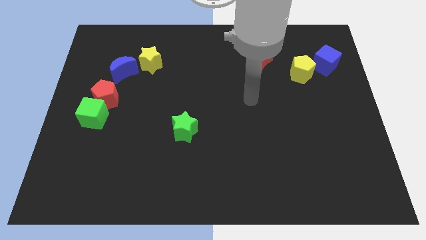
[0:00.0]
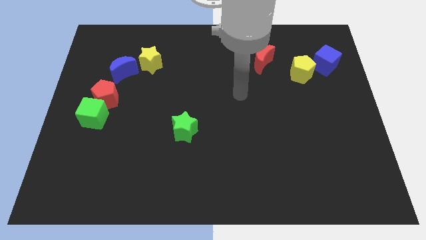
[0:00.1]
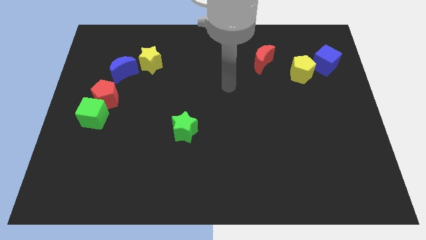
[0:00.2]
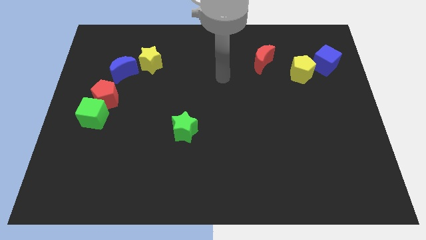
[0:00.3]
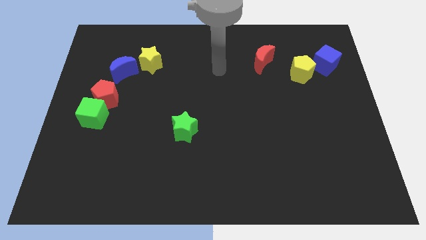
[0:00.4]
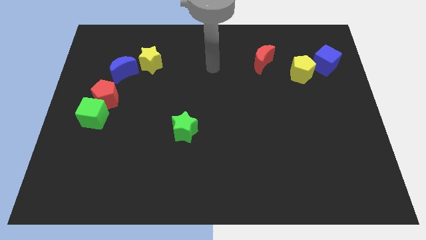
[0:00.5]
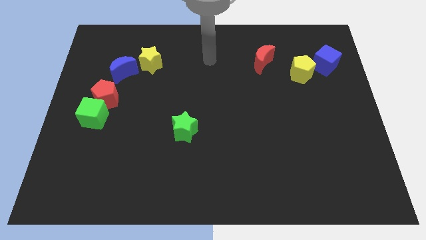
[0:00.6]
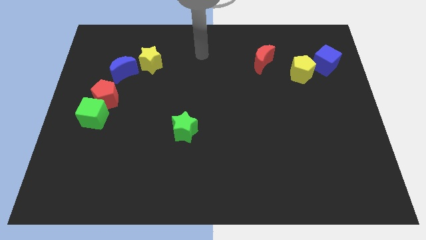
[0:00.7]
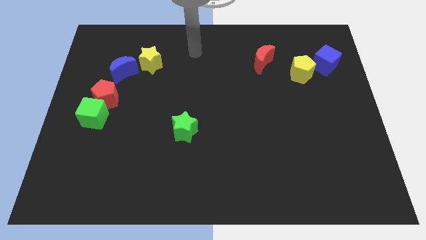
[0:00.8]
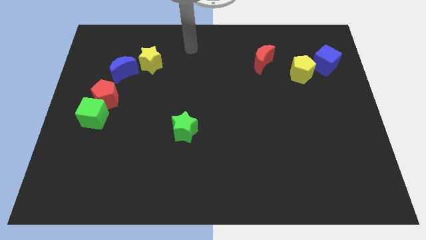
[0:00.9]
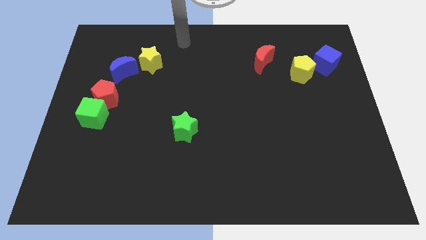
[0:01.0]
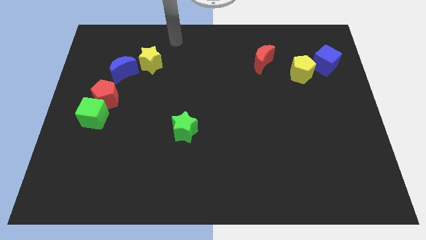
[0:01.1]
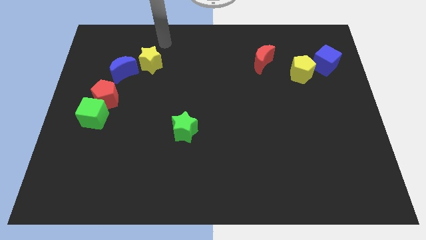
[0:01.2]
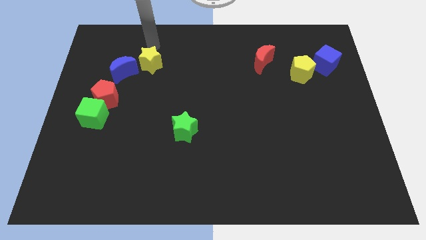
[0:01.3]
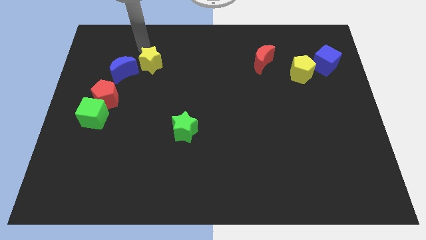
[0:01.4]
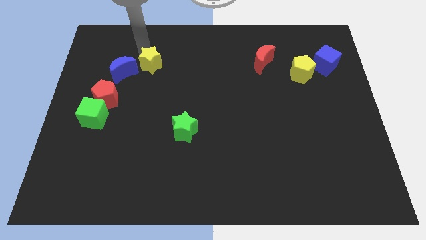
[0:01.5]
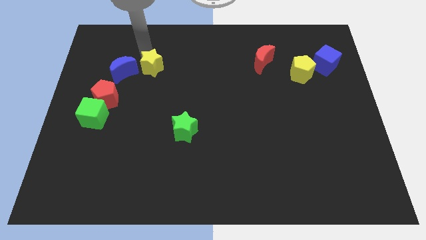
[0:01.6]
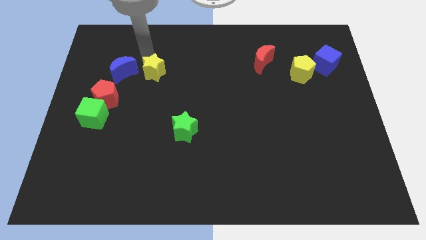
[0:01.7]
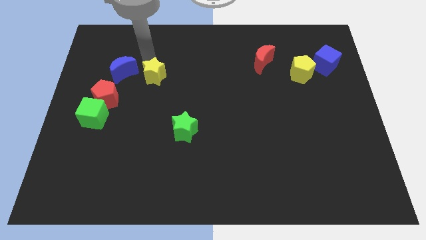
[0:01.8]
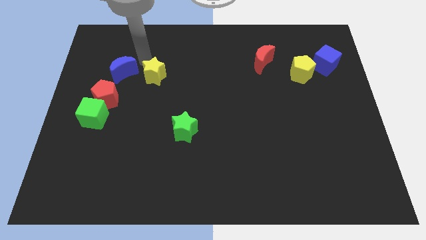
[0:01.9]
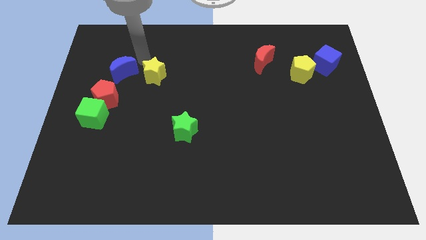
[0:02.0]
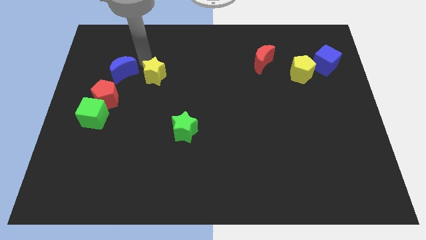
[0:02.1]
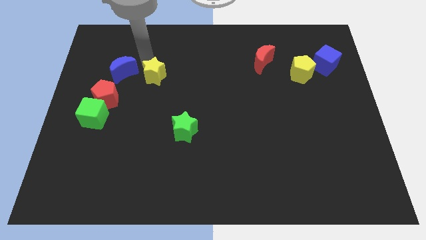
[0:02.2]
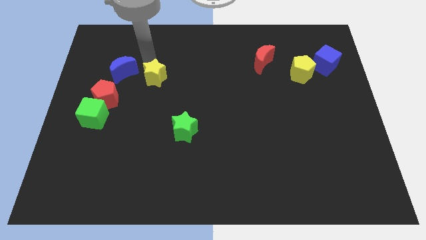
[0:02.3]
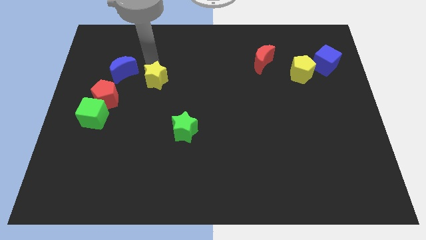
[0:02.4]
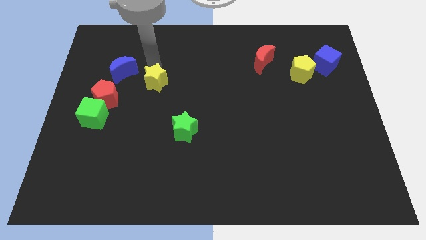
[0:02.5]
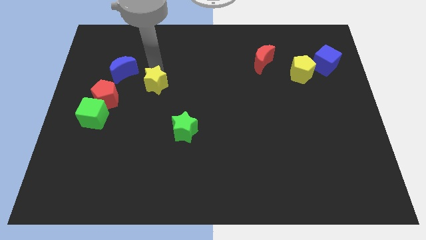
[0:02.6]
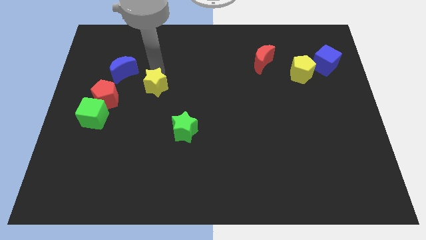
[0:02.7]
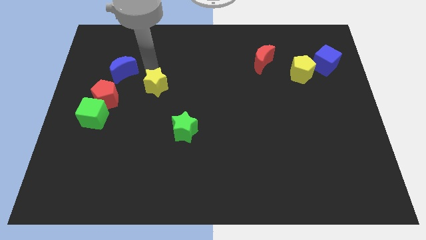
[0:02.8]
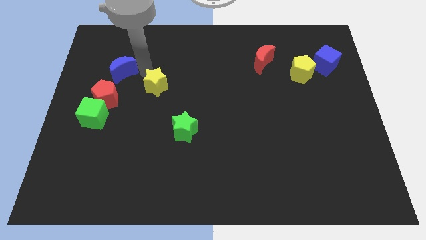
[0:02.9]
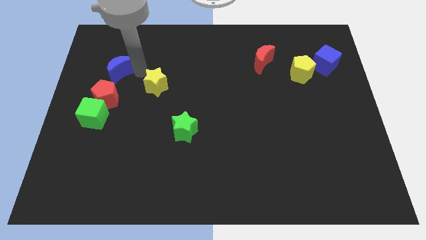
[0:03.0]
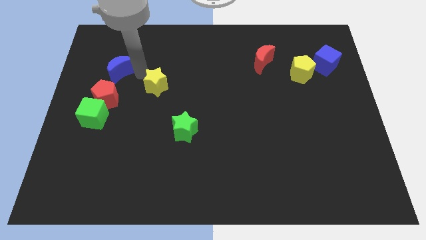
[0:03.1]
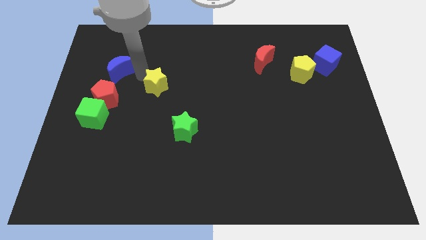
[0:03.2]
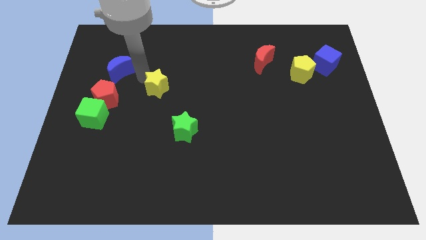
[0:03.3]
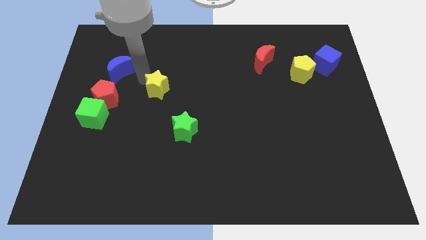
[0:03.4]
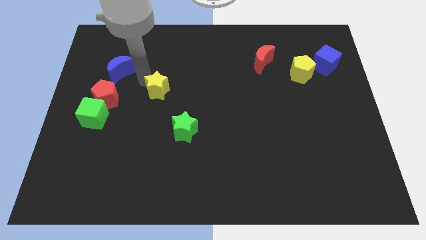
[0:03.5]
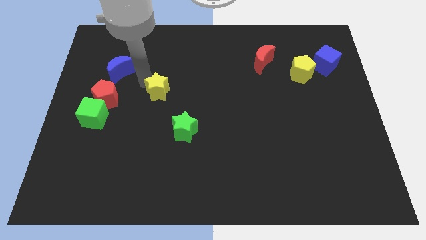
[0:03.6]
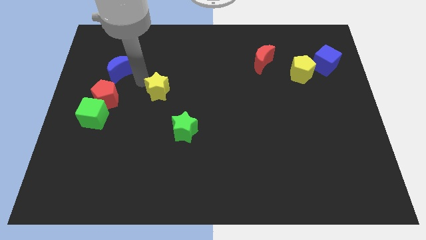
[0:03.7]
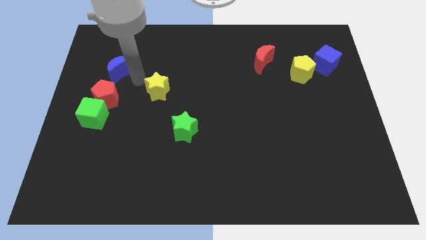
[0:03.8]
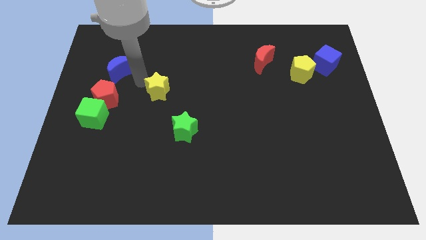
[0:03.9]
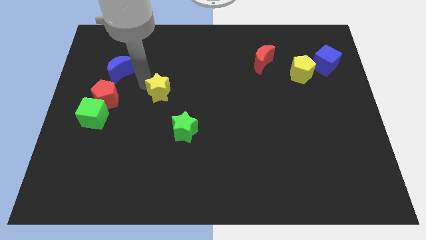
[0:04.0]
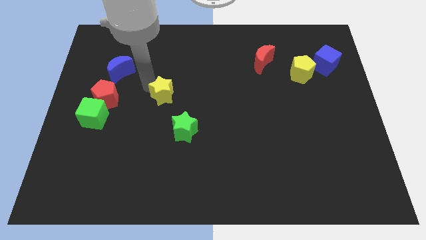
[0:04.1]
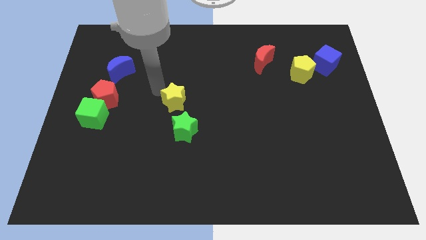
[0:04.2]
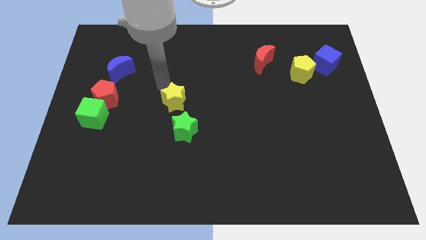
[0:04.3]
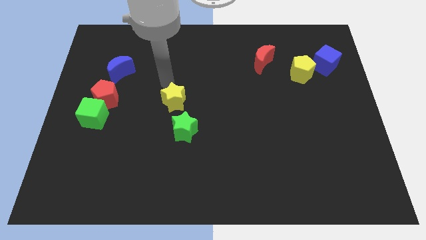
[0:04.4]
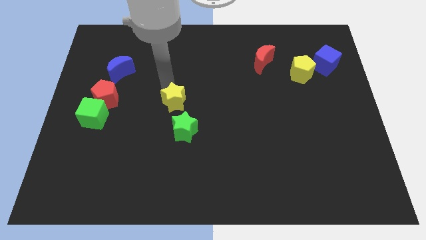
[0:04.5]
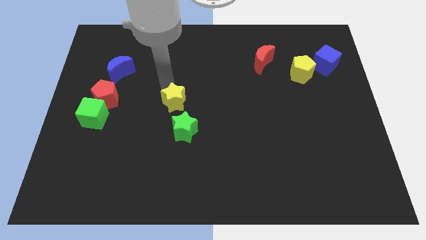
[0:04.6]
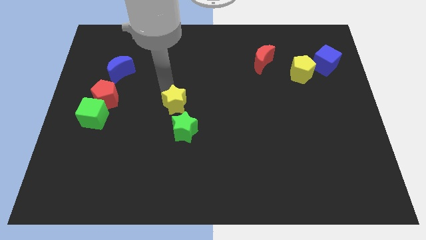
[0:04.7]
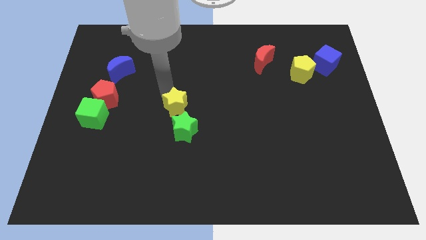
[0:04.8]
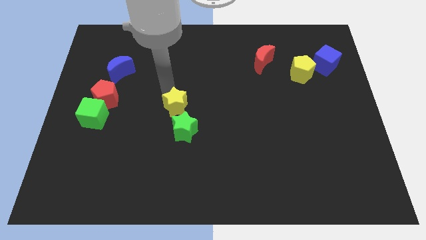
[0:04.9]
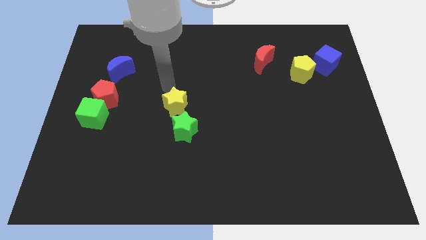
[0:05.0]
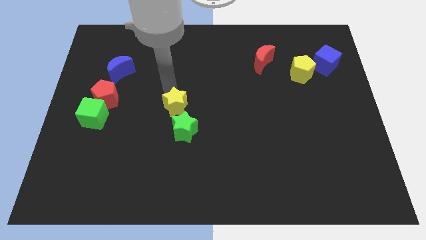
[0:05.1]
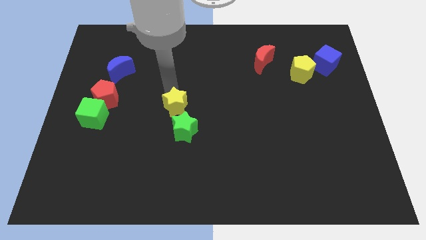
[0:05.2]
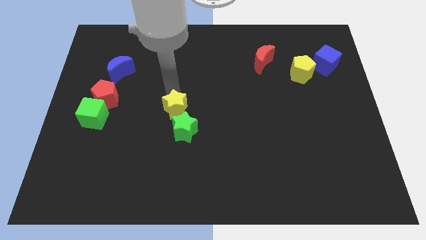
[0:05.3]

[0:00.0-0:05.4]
push the yellow star next to the green star

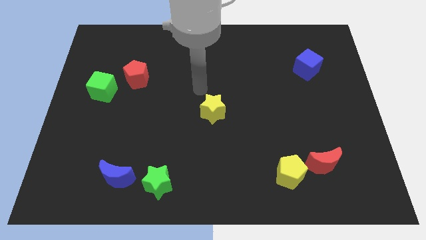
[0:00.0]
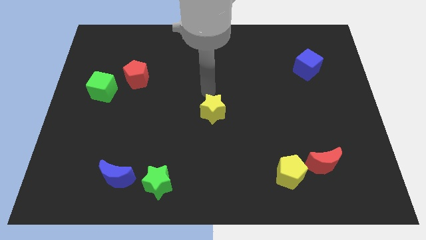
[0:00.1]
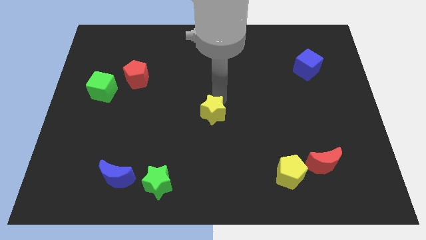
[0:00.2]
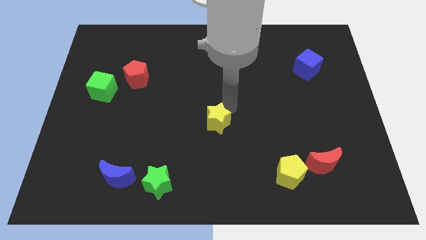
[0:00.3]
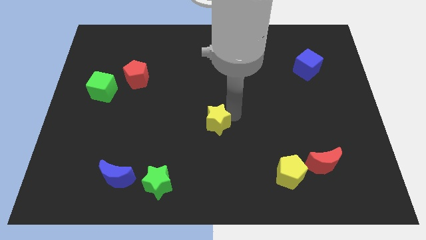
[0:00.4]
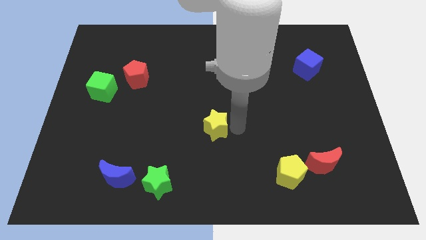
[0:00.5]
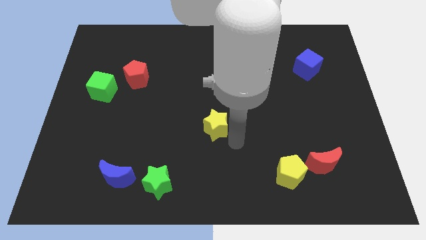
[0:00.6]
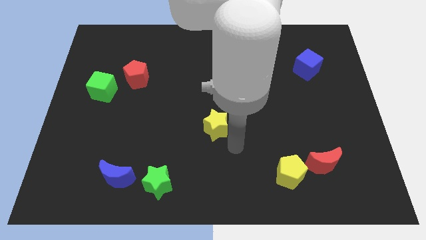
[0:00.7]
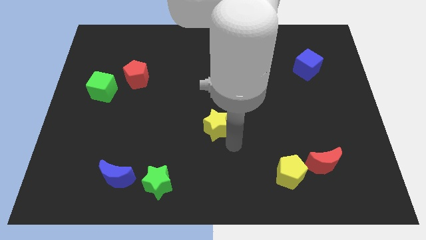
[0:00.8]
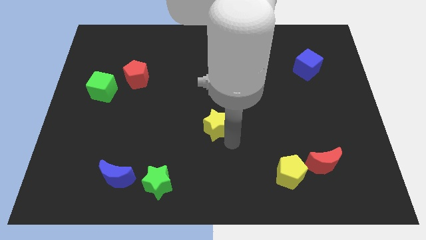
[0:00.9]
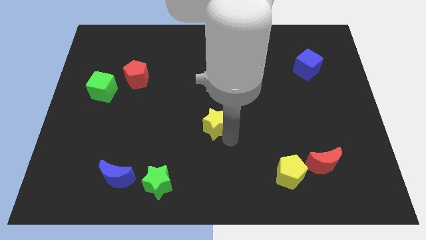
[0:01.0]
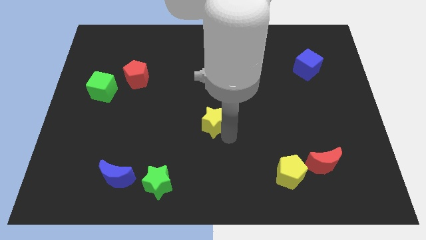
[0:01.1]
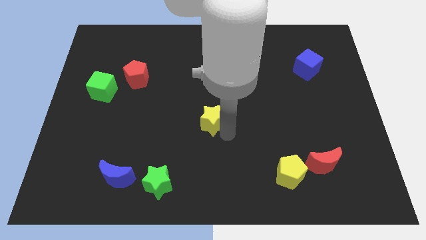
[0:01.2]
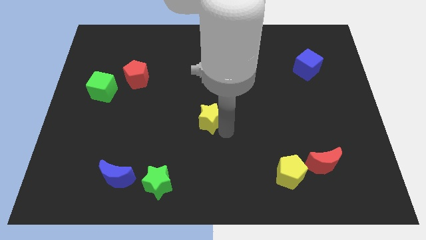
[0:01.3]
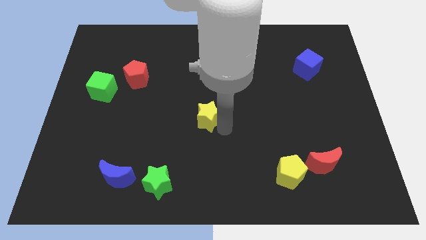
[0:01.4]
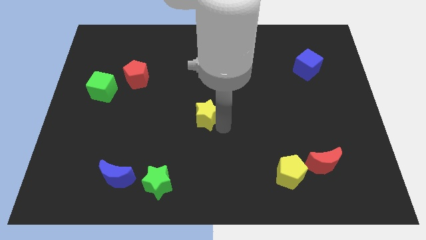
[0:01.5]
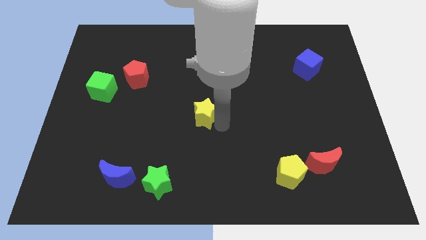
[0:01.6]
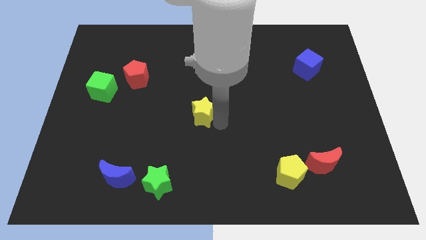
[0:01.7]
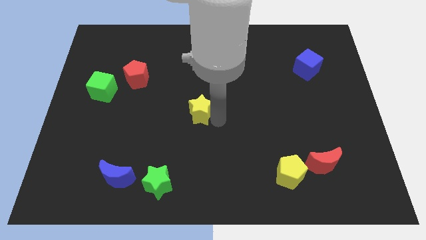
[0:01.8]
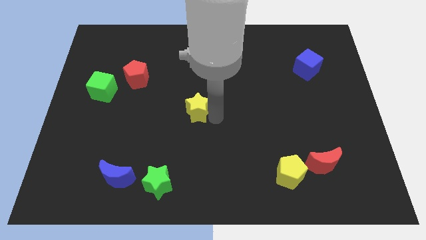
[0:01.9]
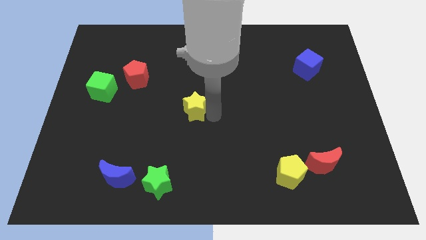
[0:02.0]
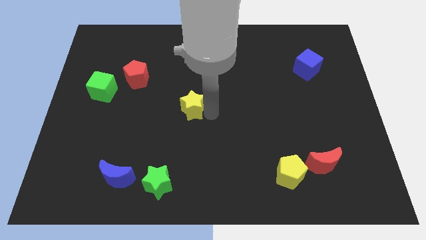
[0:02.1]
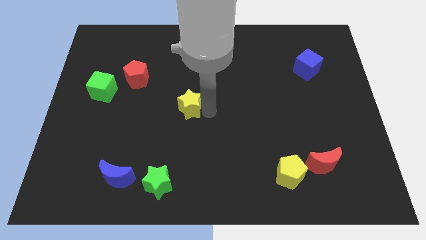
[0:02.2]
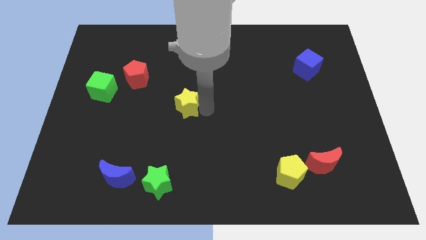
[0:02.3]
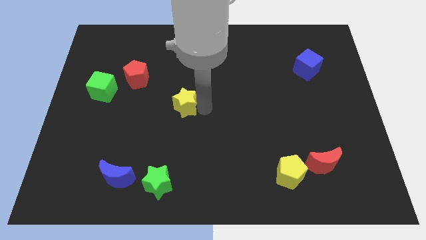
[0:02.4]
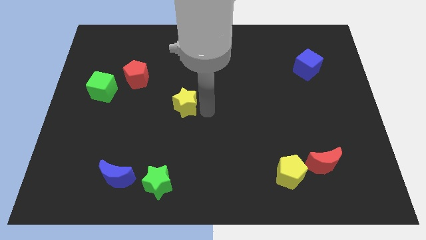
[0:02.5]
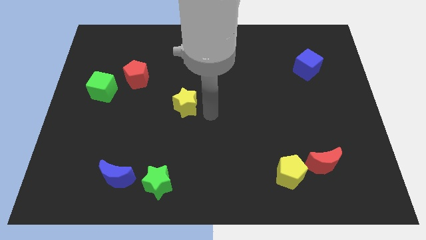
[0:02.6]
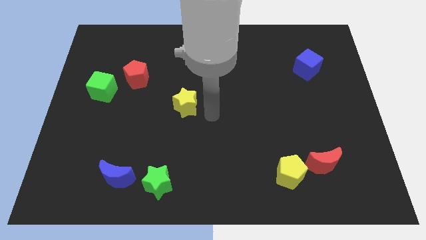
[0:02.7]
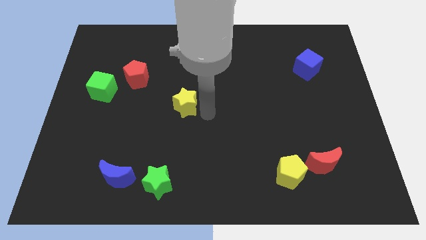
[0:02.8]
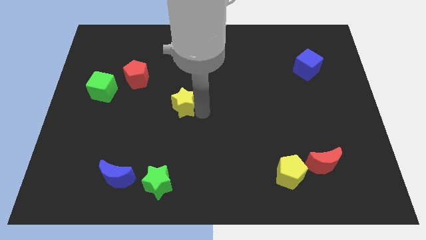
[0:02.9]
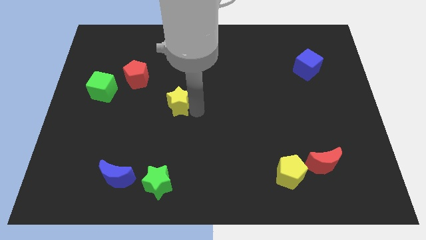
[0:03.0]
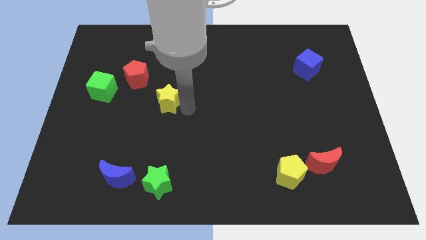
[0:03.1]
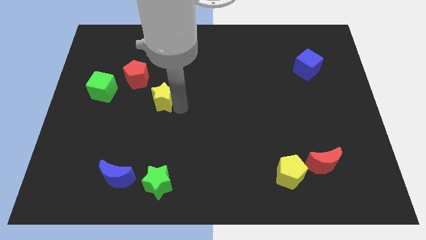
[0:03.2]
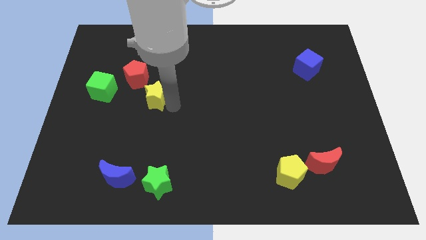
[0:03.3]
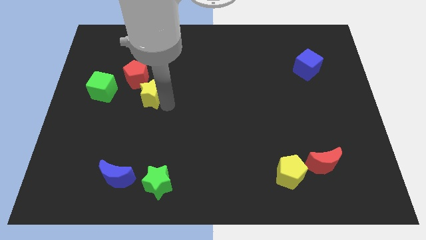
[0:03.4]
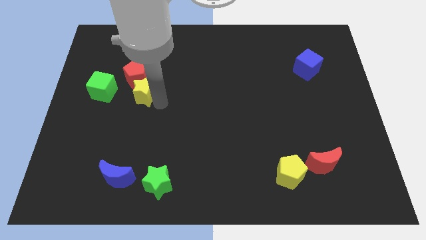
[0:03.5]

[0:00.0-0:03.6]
slide the yellow star to the red pentagon
